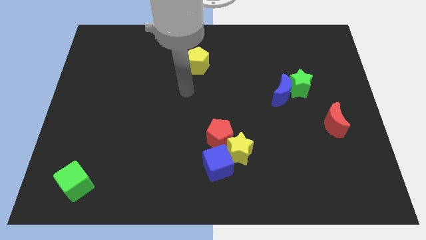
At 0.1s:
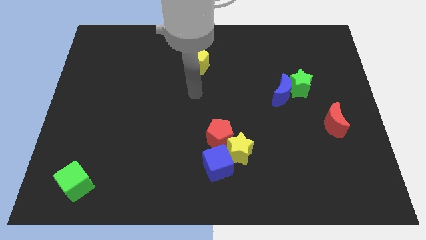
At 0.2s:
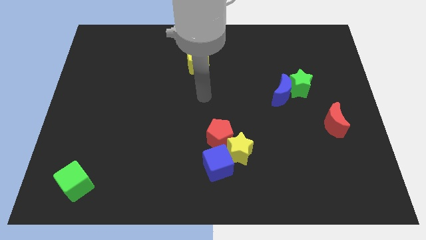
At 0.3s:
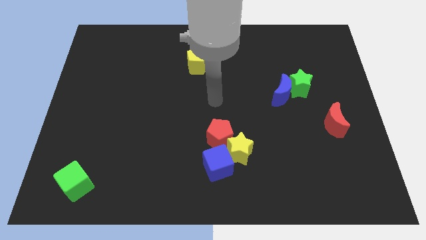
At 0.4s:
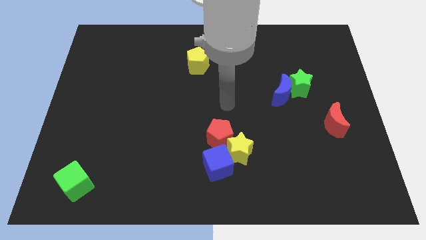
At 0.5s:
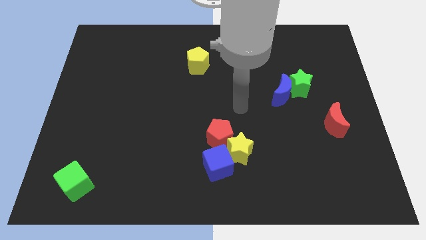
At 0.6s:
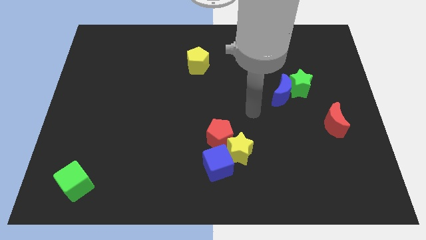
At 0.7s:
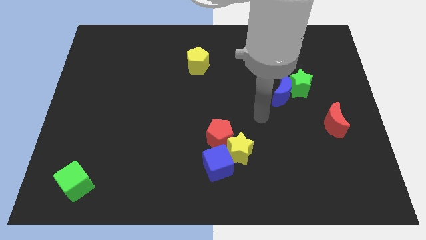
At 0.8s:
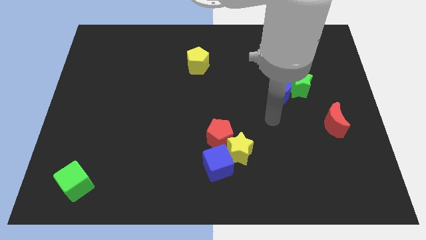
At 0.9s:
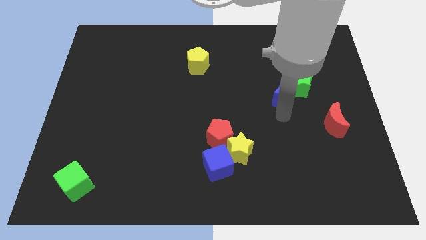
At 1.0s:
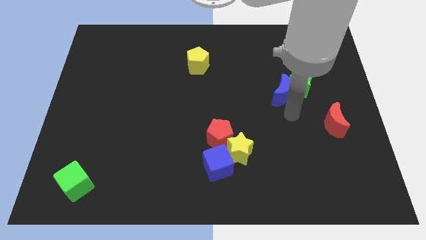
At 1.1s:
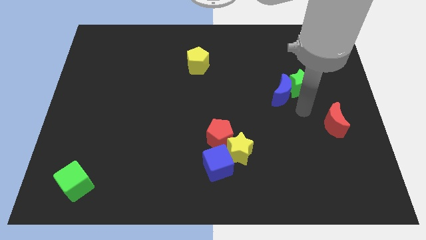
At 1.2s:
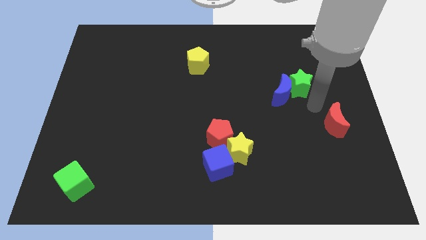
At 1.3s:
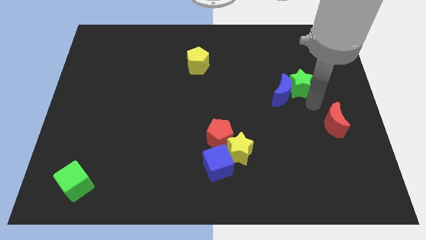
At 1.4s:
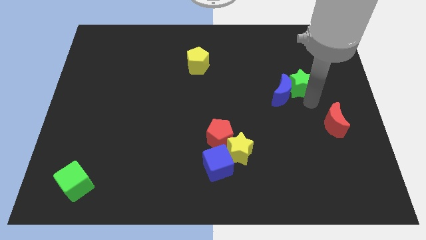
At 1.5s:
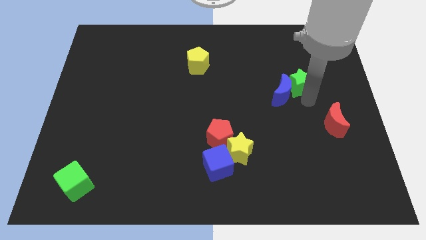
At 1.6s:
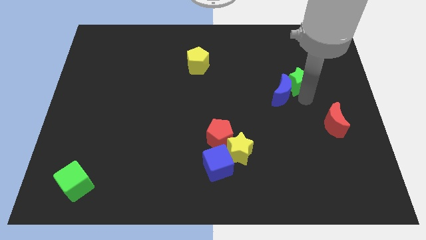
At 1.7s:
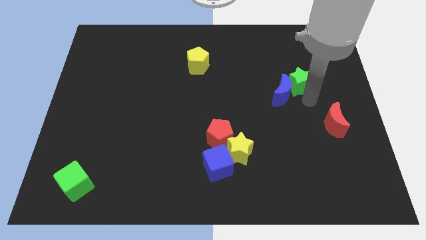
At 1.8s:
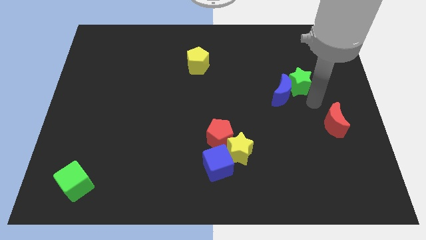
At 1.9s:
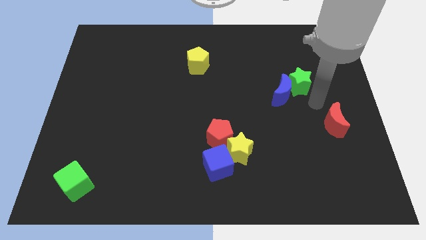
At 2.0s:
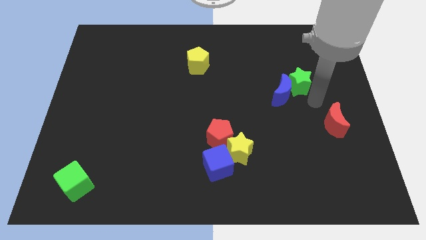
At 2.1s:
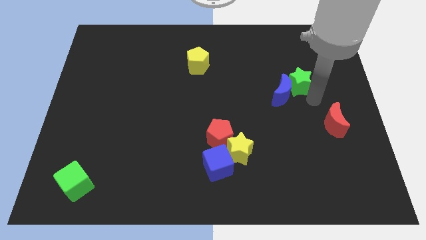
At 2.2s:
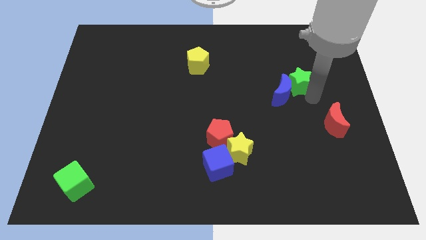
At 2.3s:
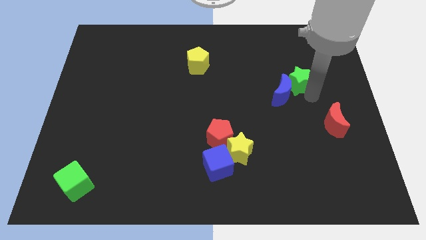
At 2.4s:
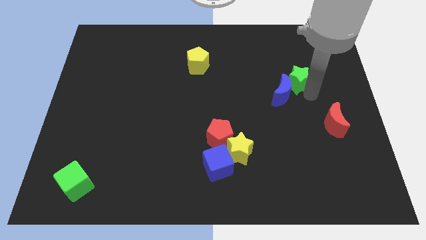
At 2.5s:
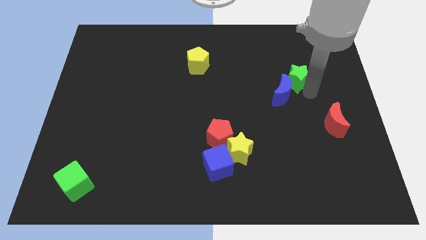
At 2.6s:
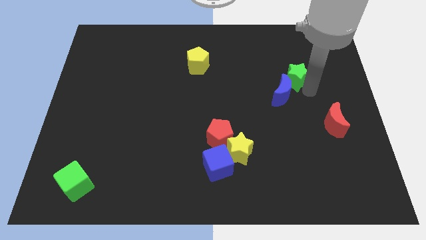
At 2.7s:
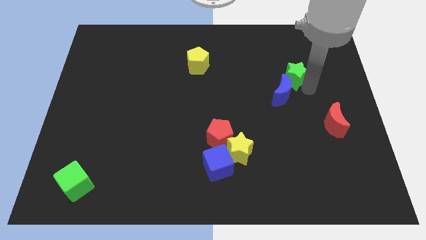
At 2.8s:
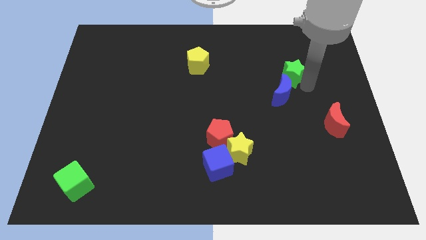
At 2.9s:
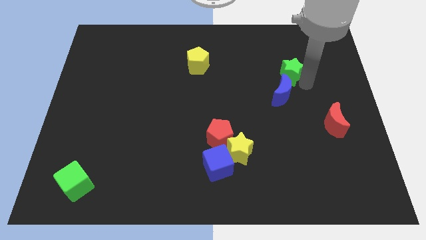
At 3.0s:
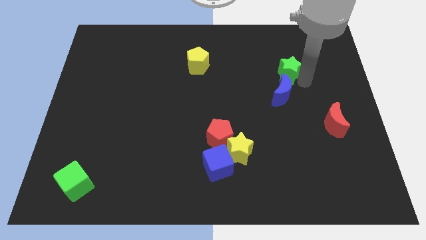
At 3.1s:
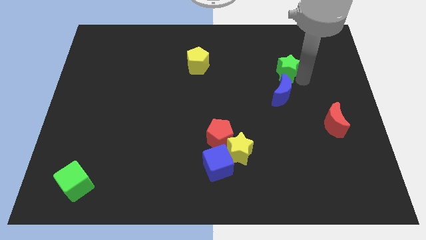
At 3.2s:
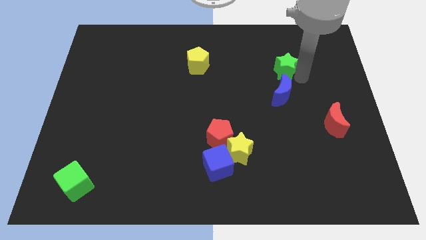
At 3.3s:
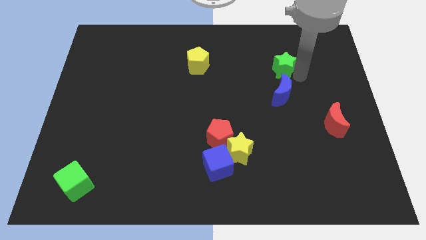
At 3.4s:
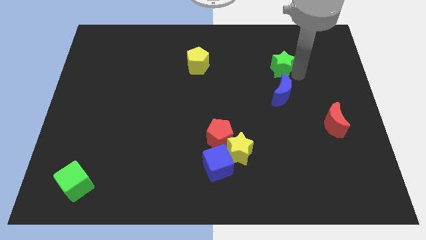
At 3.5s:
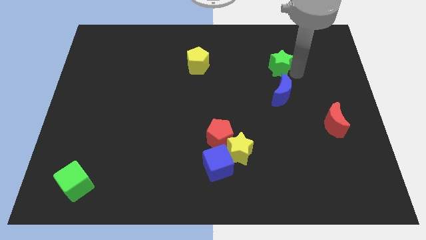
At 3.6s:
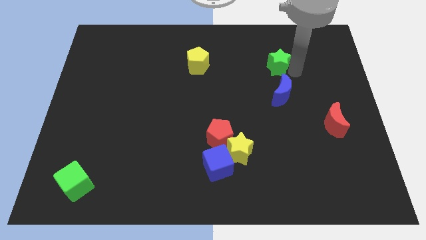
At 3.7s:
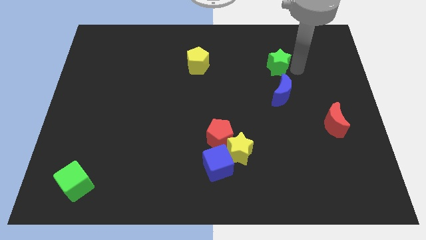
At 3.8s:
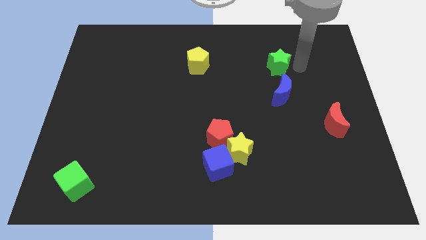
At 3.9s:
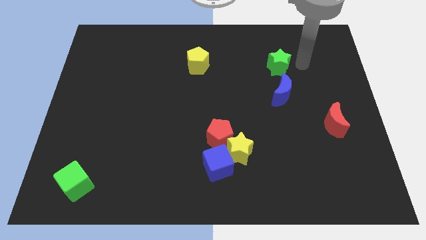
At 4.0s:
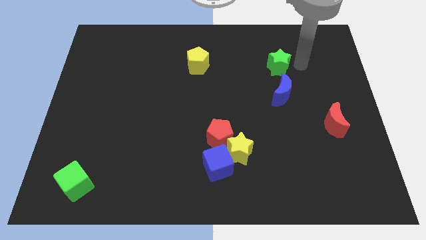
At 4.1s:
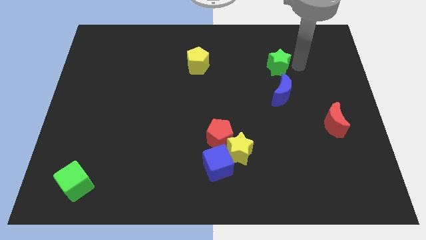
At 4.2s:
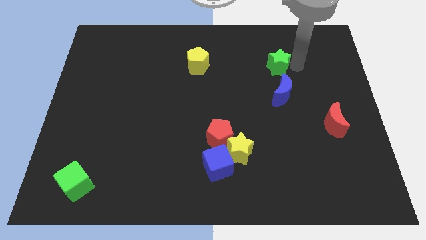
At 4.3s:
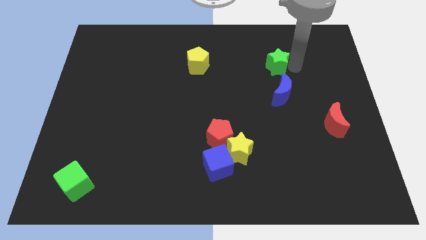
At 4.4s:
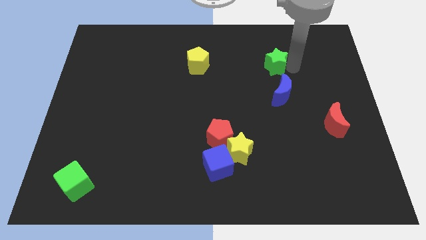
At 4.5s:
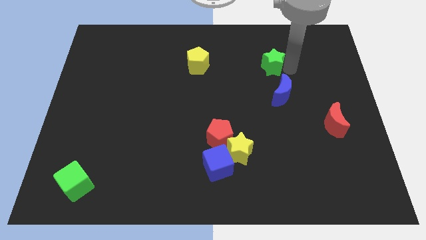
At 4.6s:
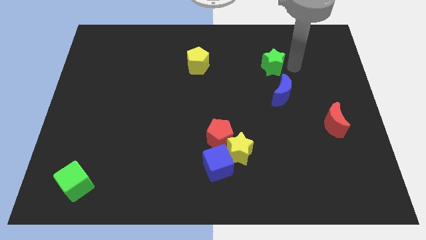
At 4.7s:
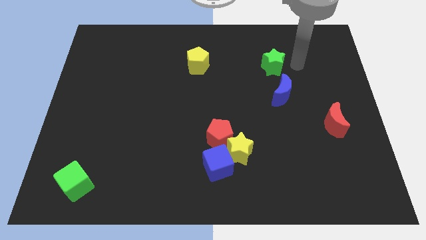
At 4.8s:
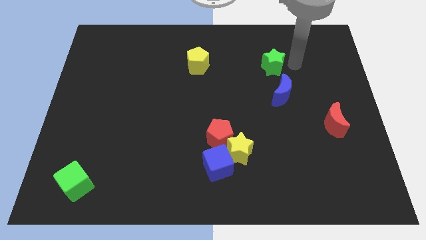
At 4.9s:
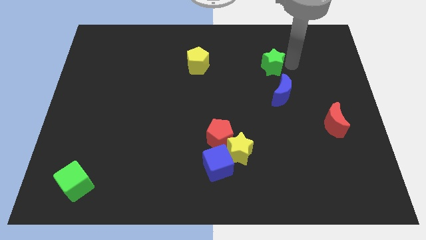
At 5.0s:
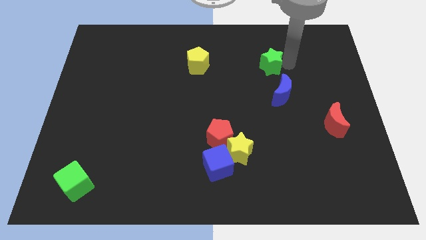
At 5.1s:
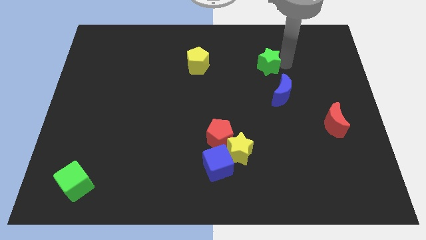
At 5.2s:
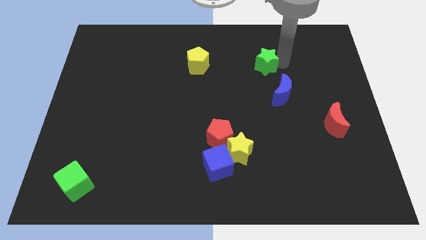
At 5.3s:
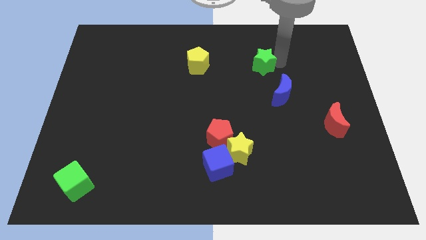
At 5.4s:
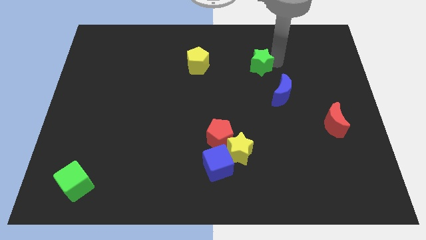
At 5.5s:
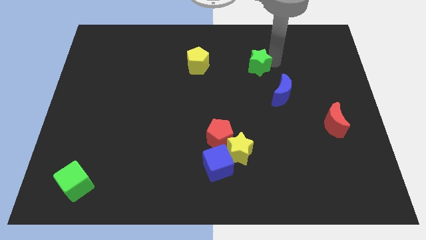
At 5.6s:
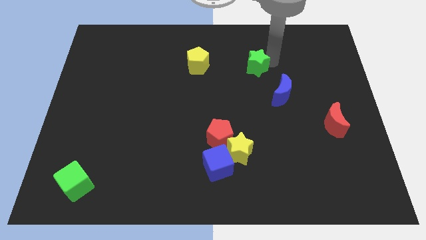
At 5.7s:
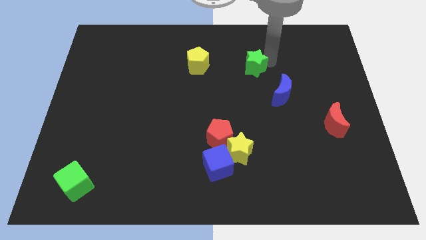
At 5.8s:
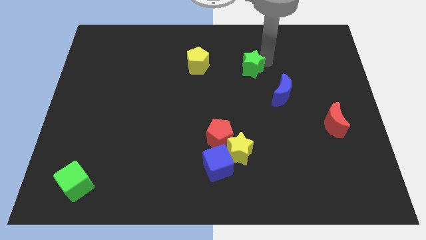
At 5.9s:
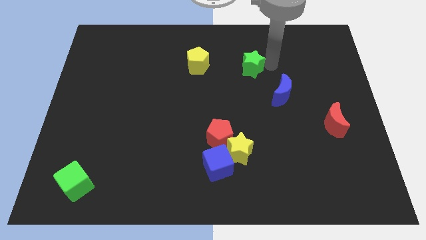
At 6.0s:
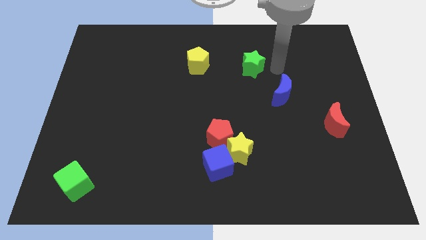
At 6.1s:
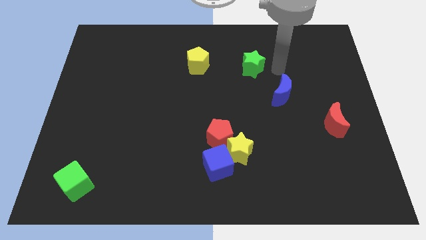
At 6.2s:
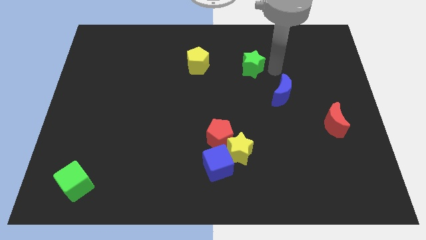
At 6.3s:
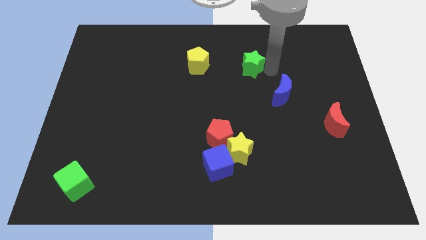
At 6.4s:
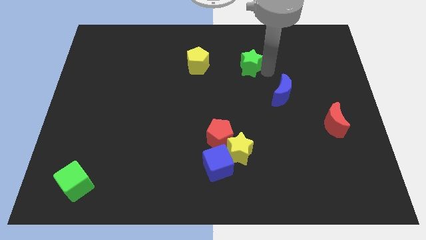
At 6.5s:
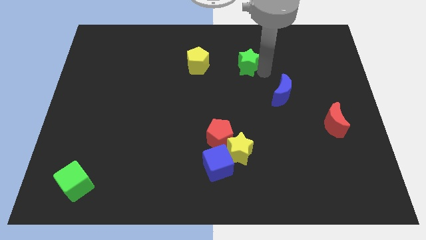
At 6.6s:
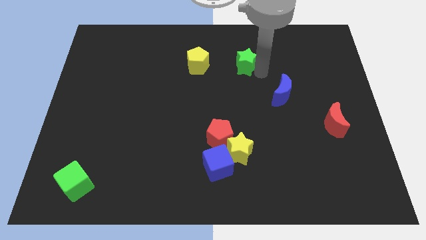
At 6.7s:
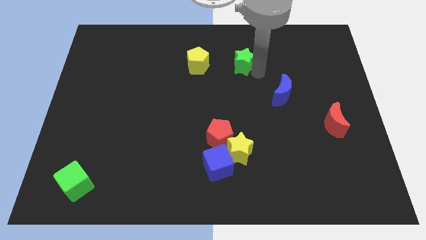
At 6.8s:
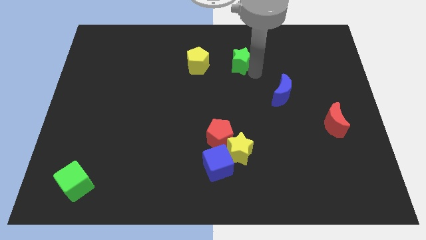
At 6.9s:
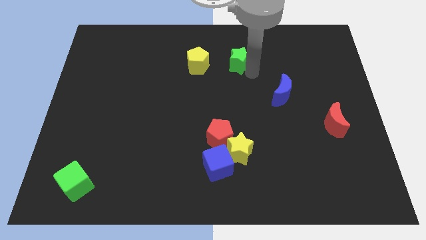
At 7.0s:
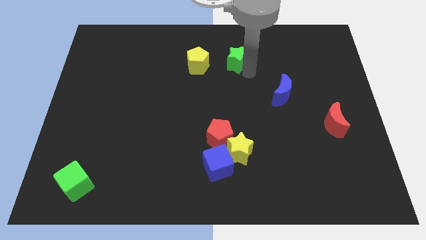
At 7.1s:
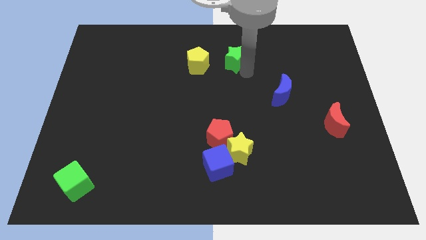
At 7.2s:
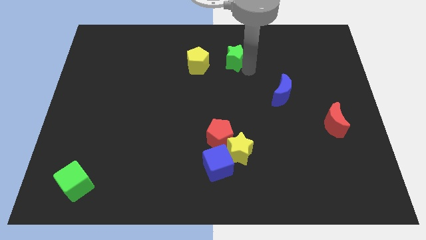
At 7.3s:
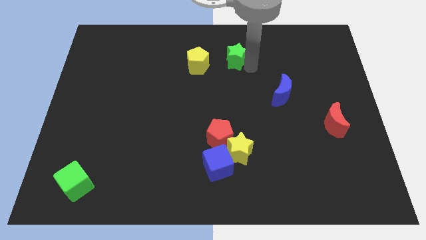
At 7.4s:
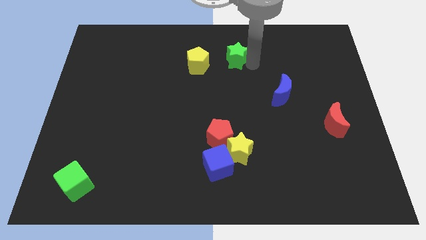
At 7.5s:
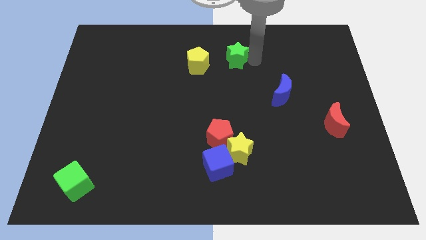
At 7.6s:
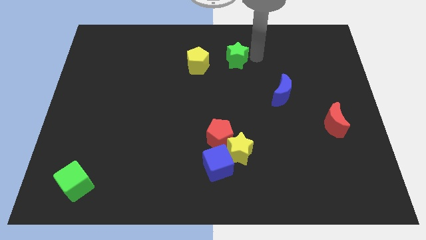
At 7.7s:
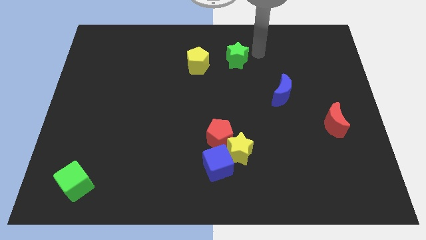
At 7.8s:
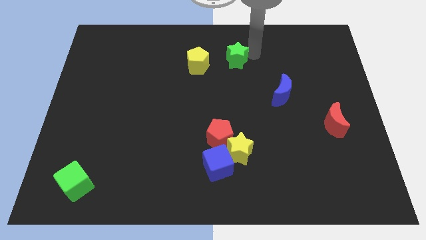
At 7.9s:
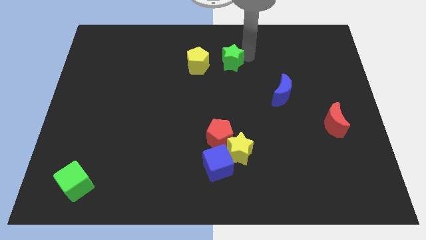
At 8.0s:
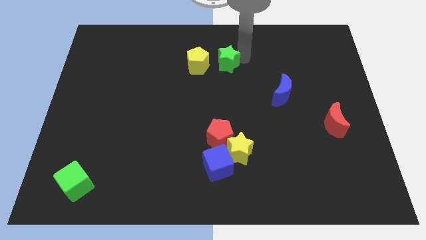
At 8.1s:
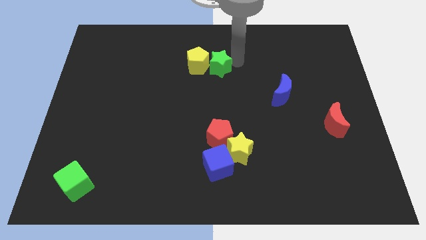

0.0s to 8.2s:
push the green star next to the yellow pentagon
